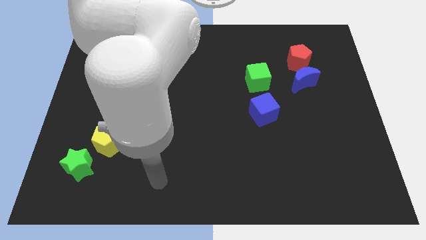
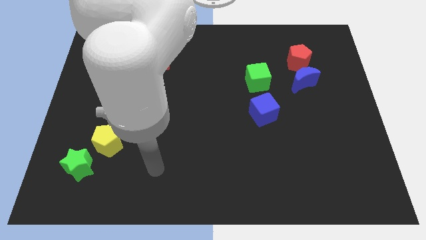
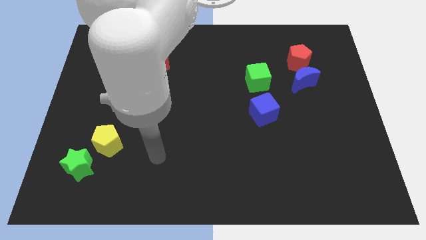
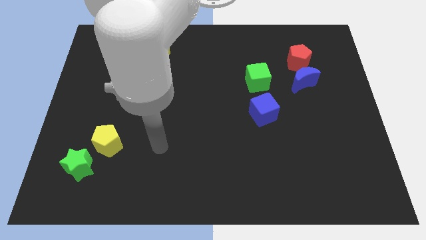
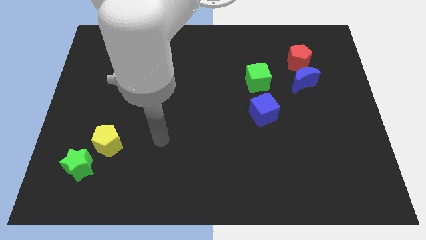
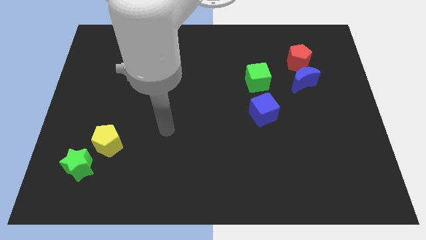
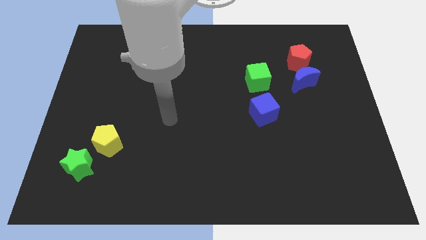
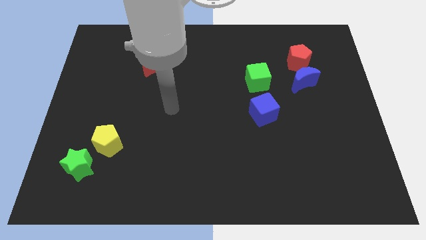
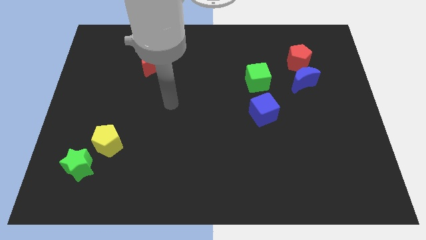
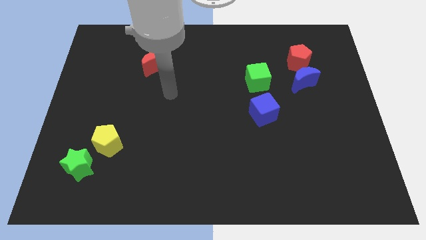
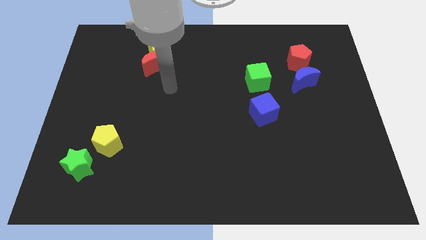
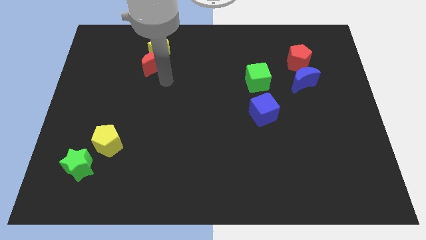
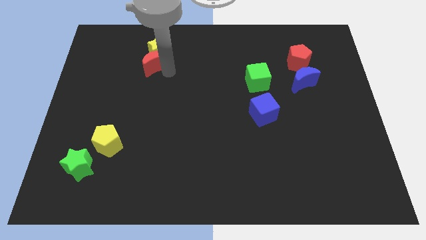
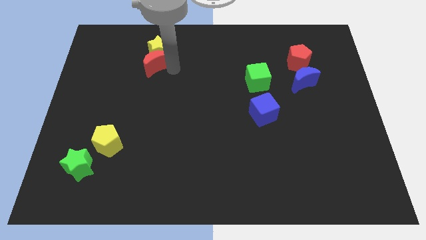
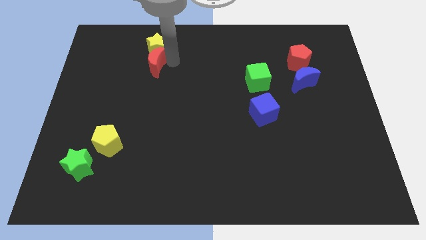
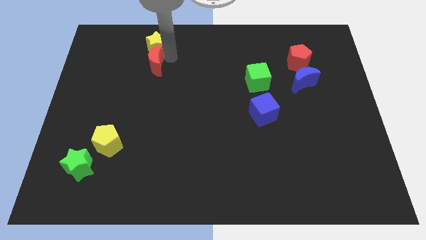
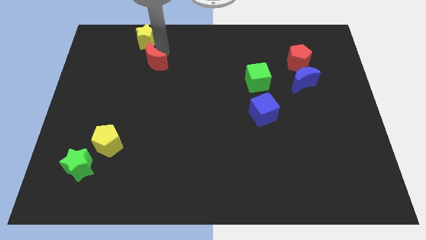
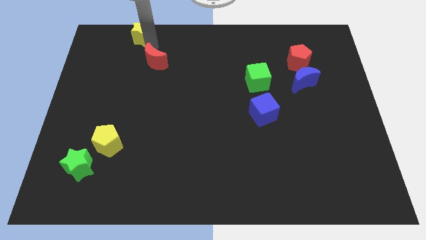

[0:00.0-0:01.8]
separate the red moon from the yellow star

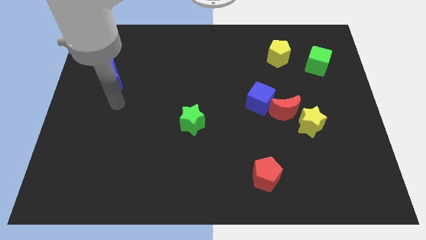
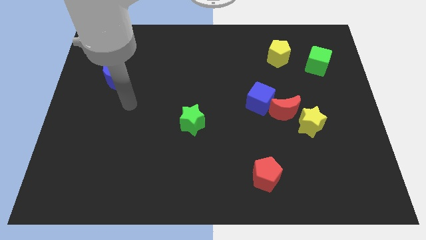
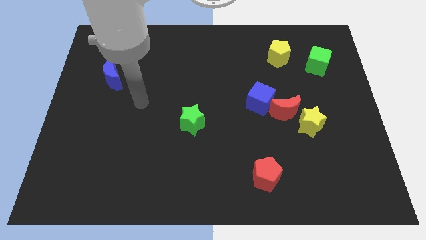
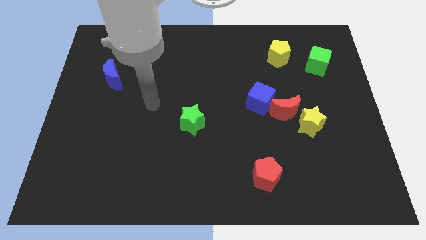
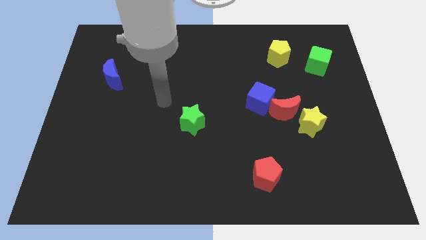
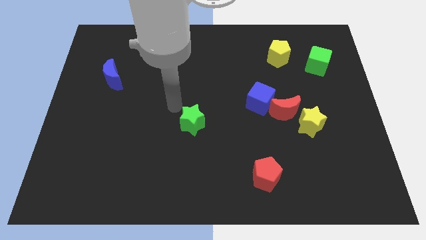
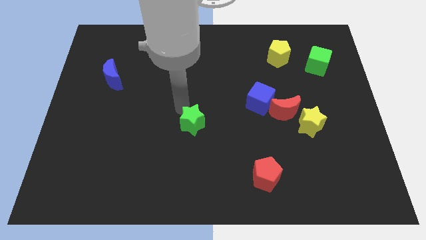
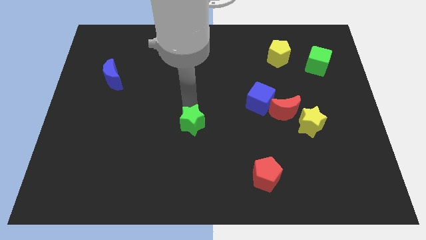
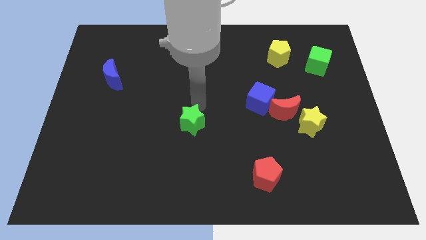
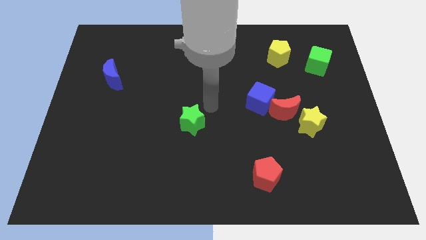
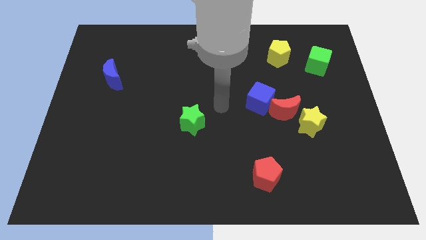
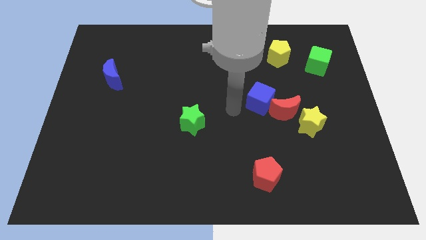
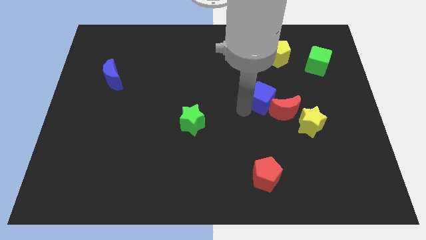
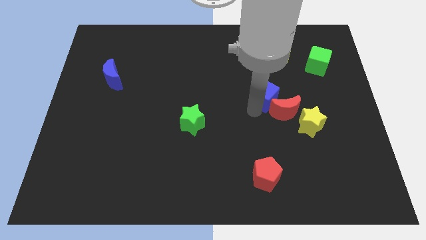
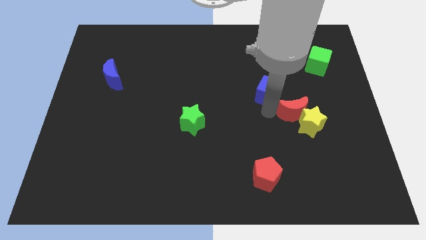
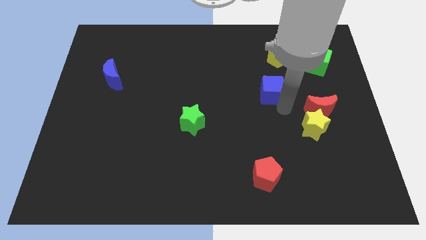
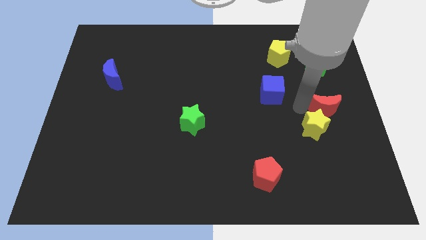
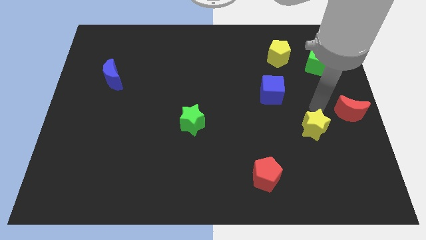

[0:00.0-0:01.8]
pull the yellow star apart from the red moon

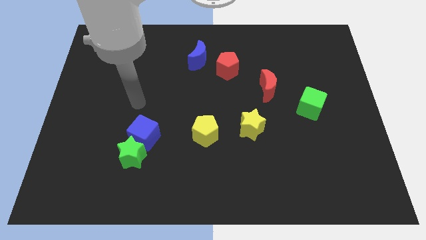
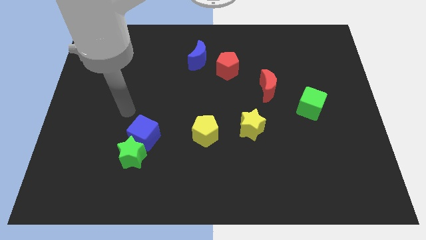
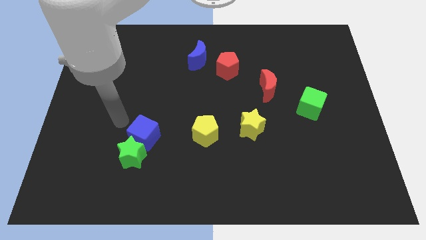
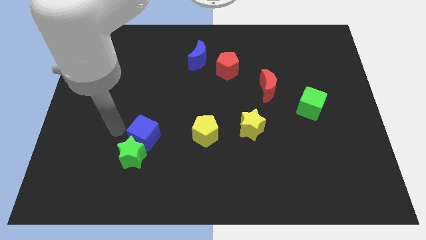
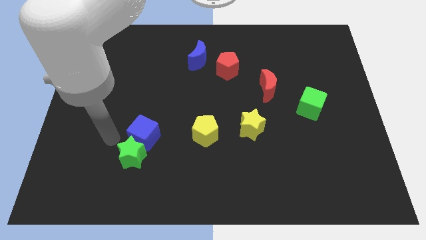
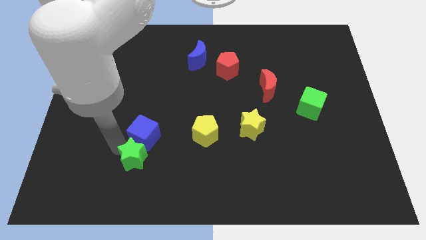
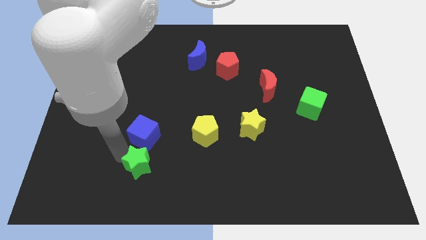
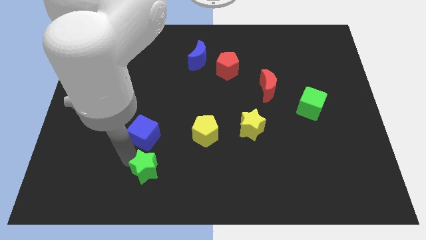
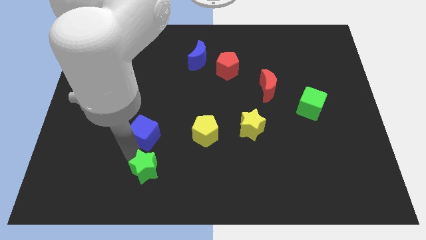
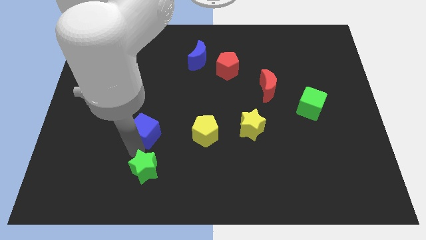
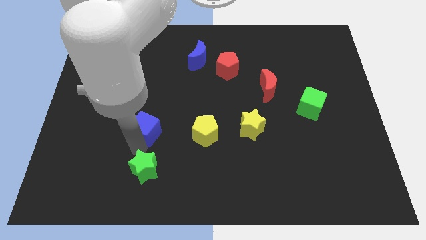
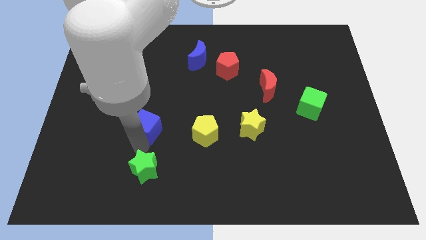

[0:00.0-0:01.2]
separate the blue cube from the green star

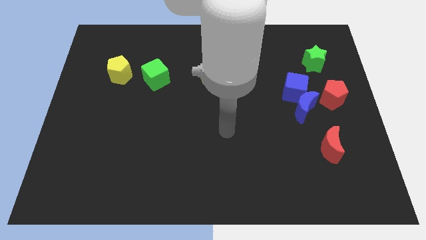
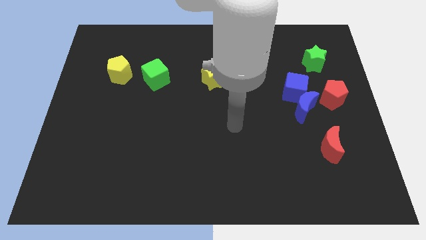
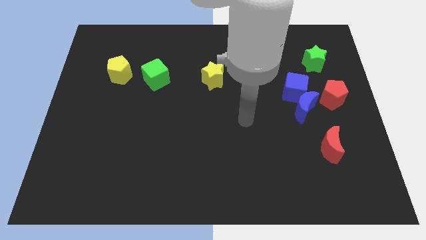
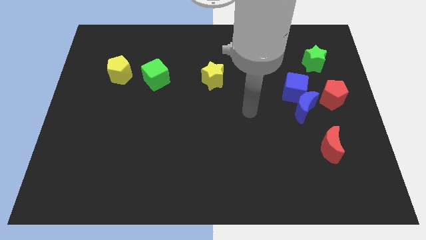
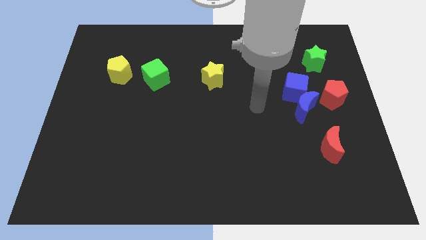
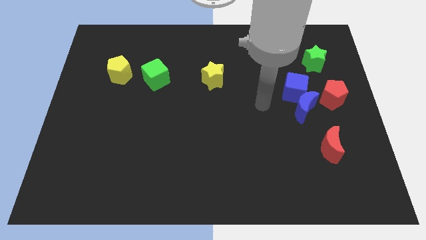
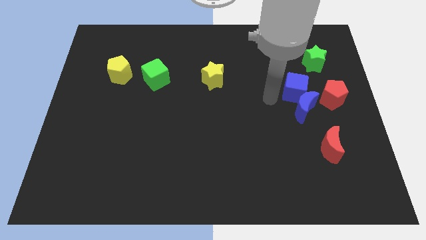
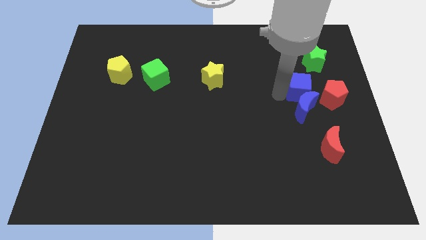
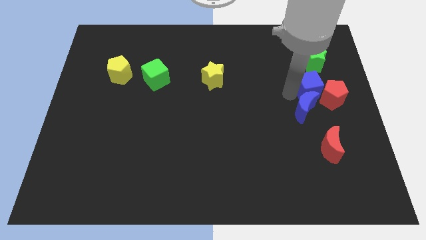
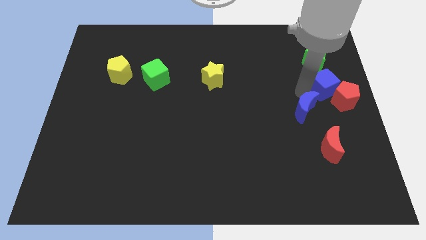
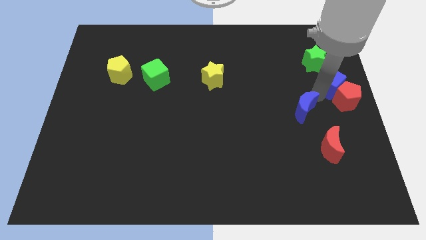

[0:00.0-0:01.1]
move the blue moon away from the blue cube and red pentagon

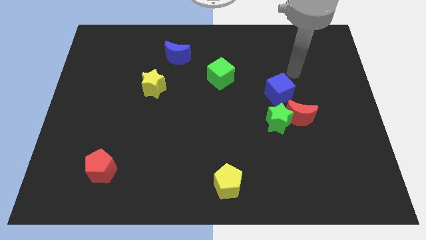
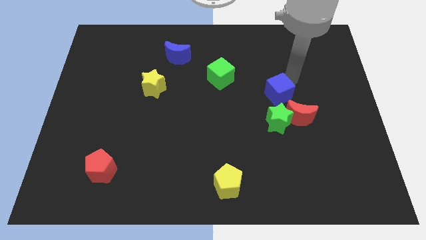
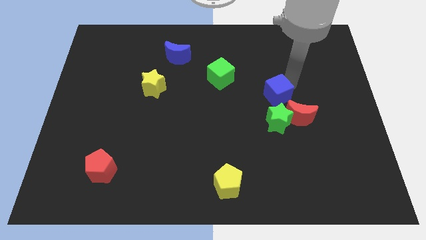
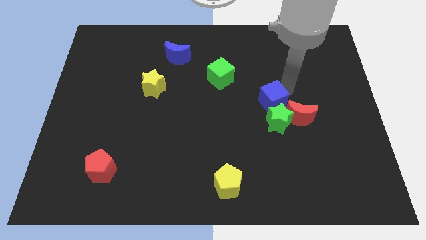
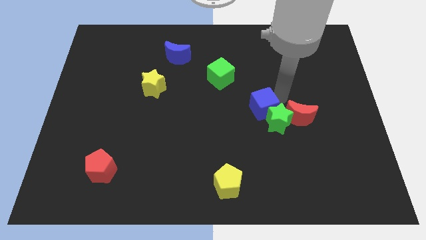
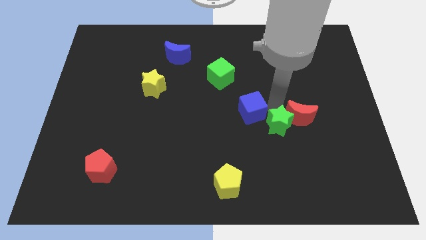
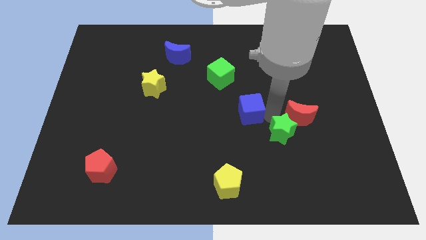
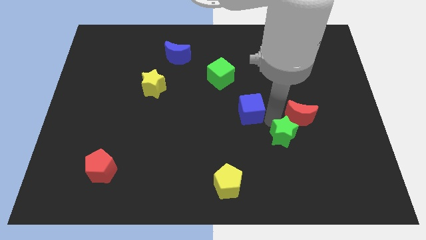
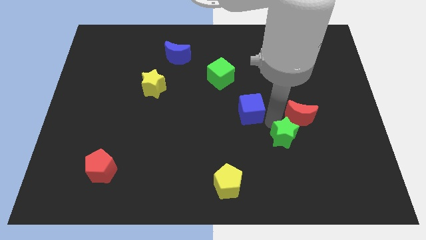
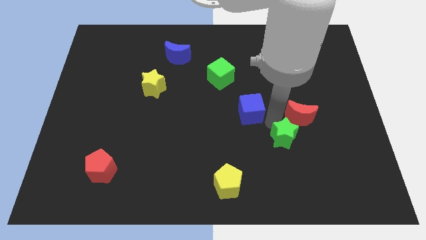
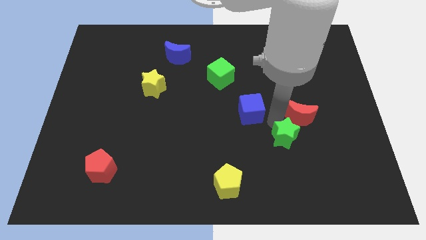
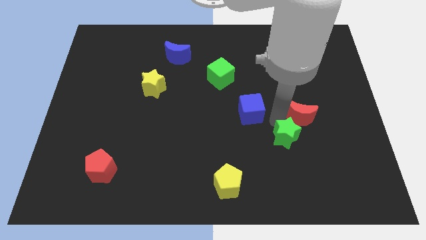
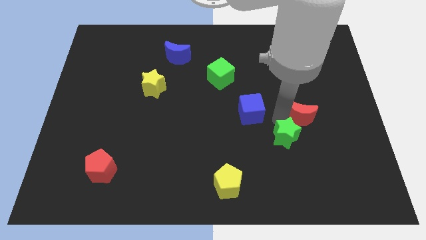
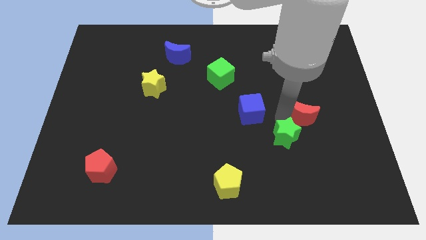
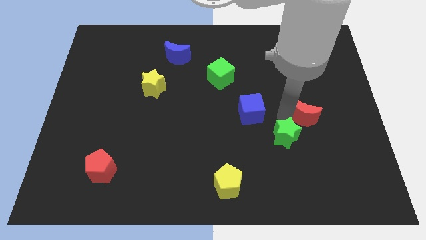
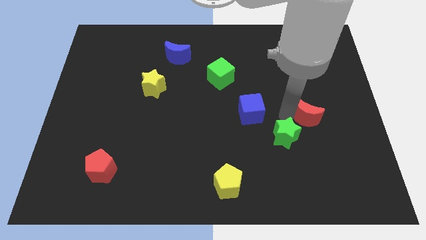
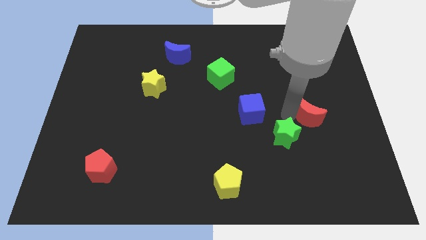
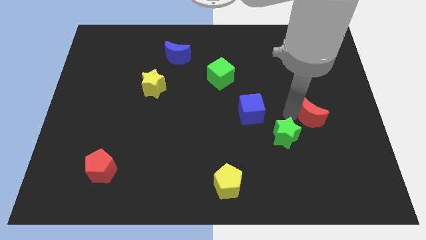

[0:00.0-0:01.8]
pull the red moon apart from the green star and blue cube

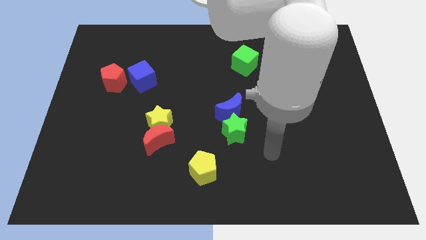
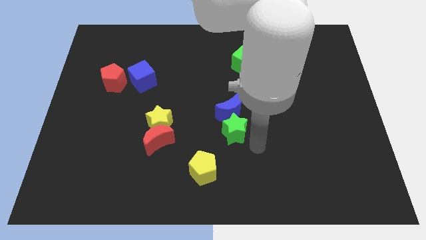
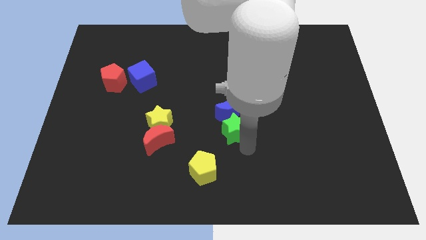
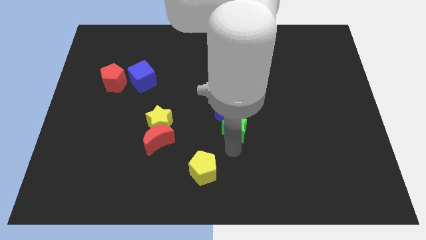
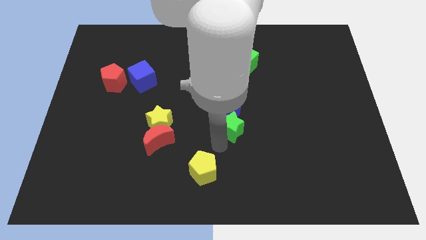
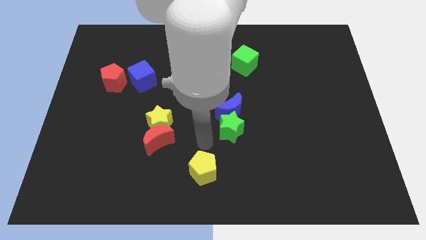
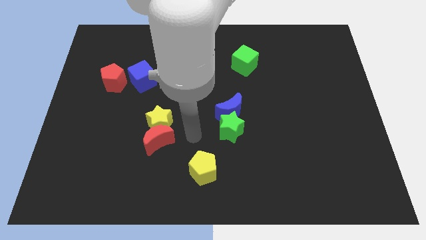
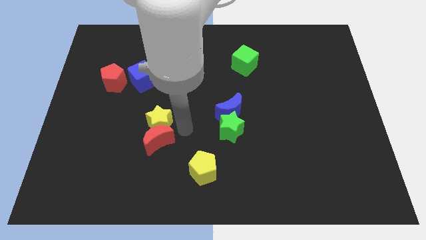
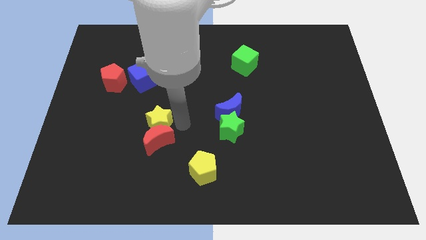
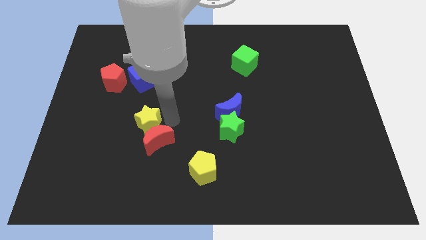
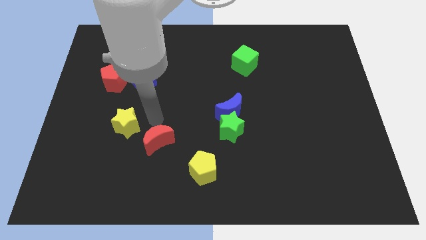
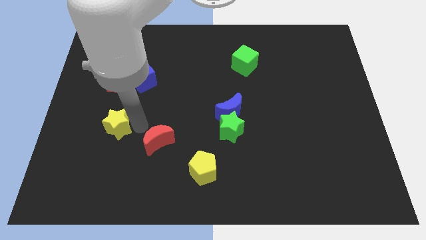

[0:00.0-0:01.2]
move the red moon away from the yellow star

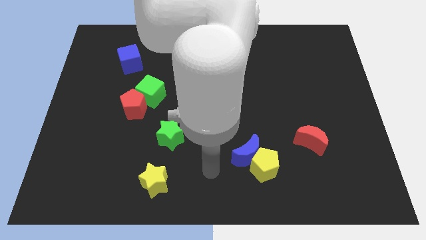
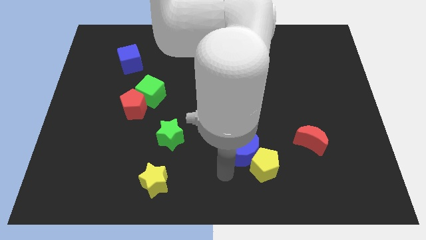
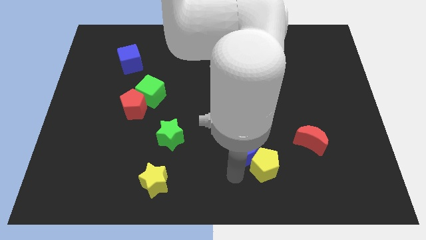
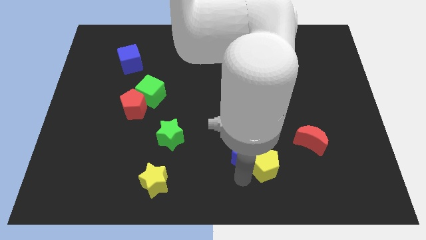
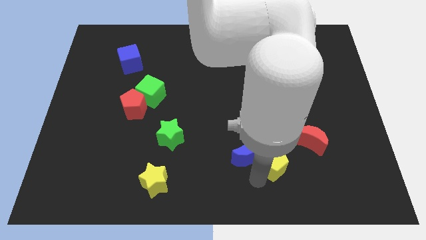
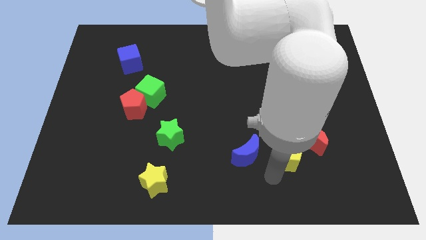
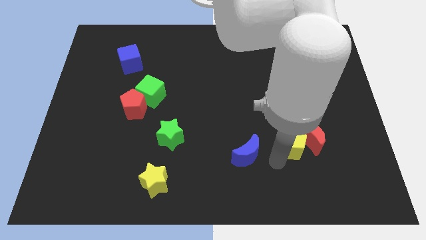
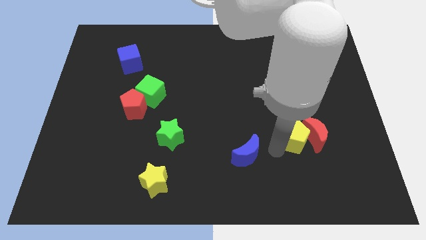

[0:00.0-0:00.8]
pull the blue moon apart from the yellow pentagon
